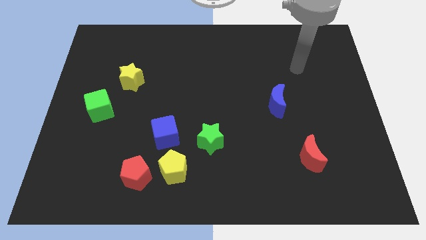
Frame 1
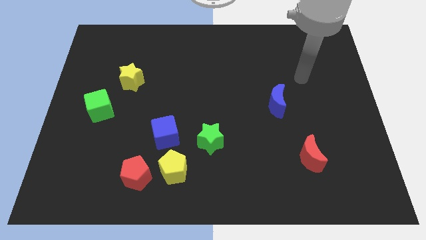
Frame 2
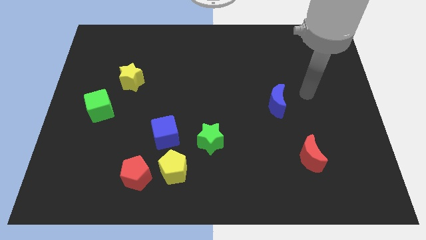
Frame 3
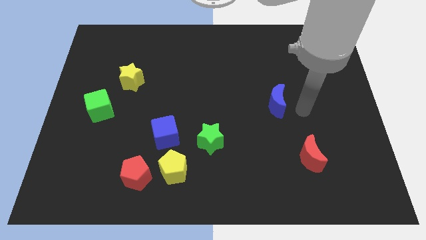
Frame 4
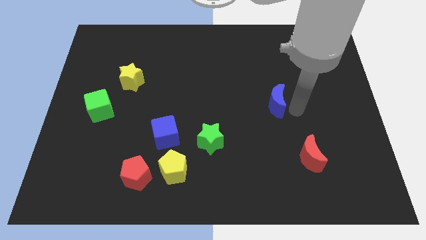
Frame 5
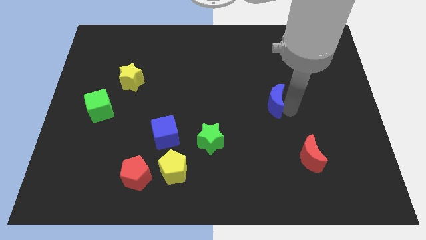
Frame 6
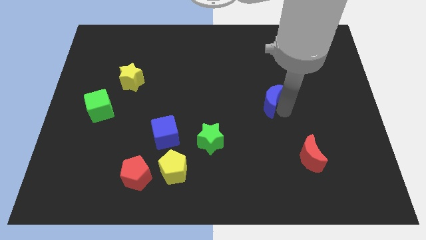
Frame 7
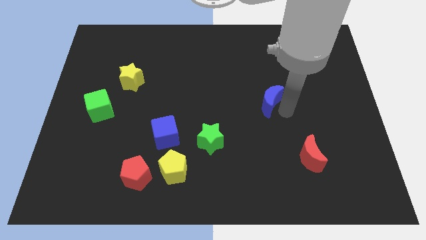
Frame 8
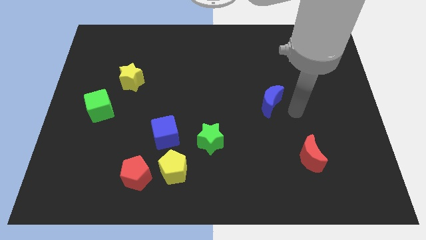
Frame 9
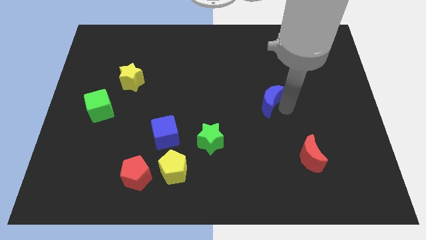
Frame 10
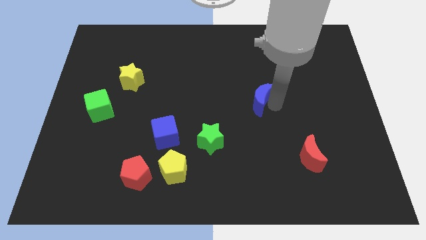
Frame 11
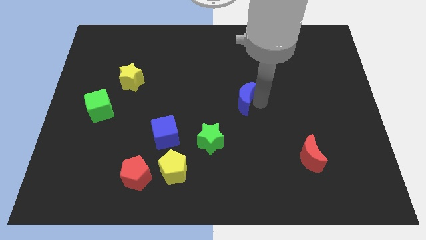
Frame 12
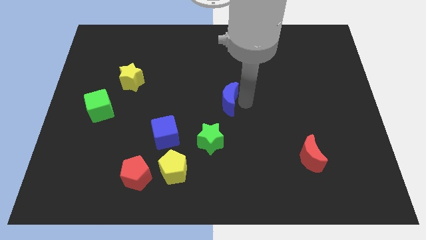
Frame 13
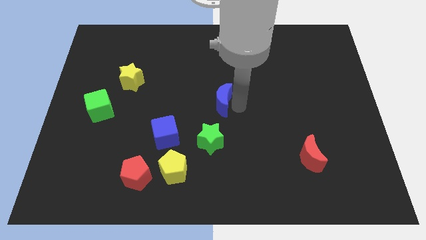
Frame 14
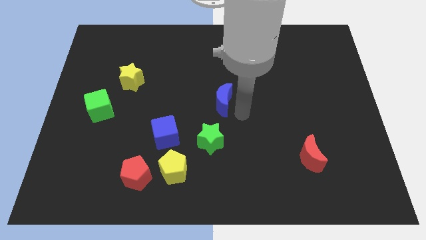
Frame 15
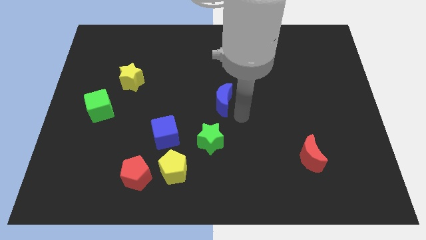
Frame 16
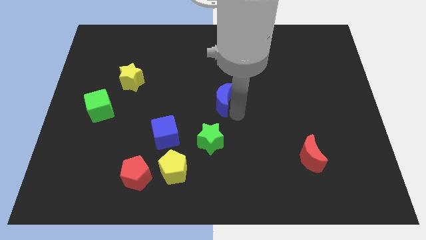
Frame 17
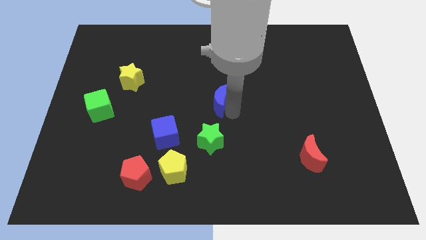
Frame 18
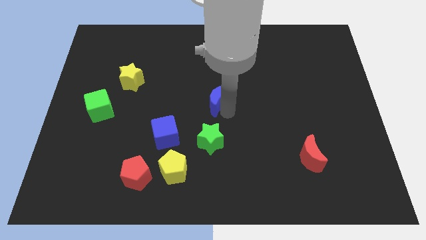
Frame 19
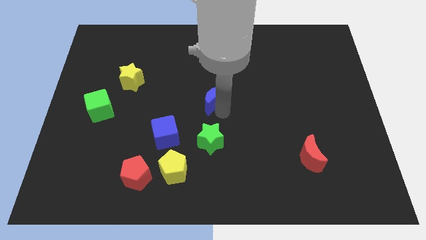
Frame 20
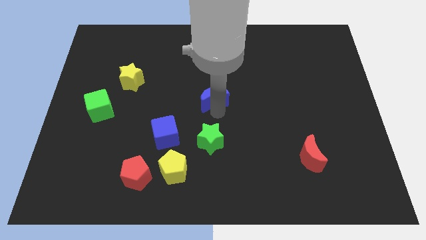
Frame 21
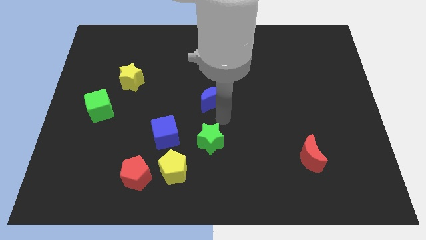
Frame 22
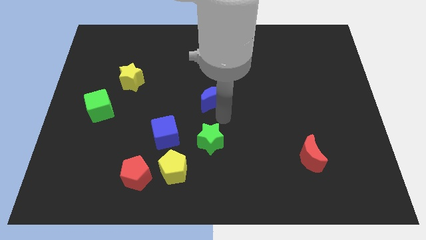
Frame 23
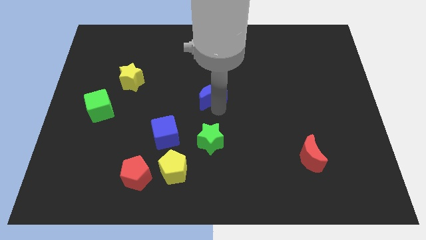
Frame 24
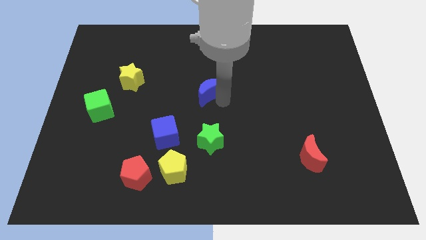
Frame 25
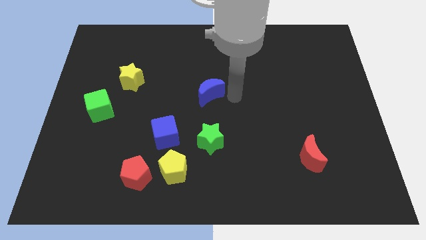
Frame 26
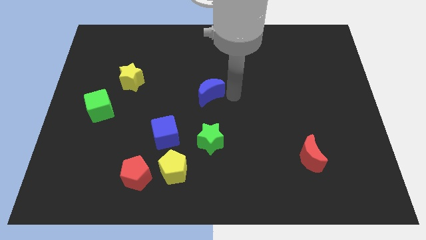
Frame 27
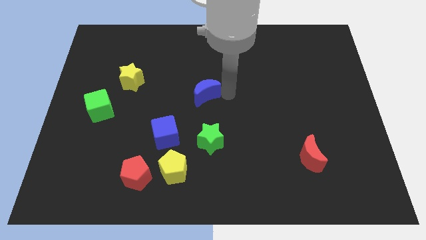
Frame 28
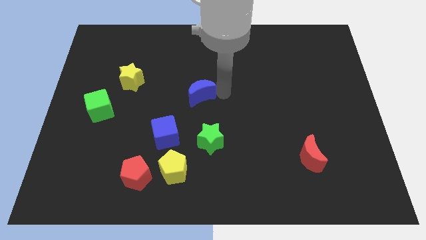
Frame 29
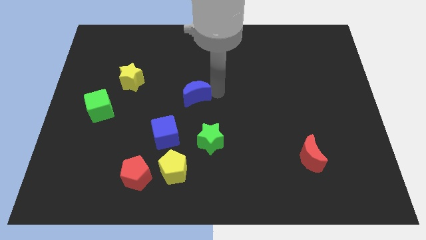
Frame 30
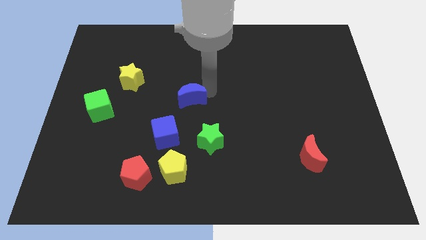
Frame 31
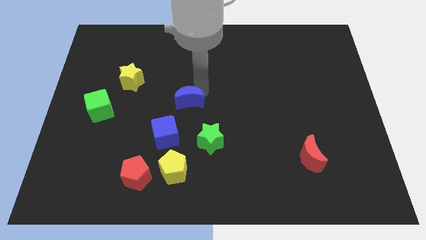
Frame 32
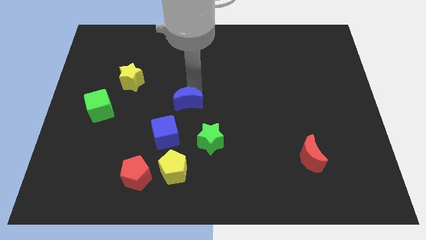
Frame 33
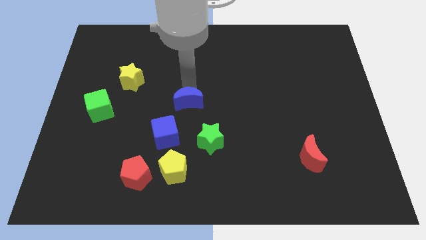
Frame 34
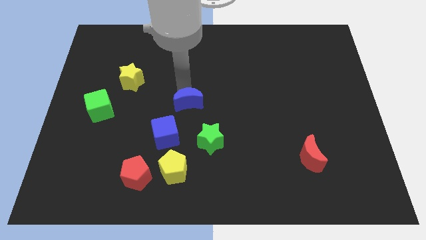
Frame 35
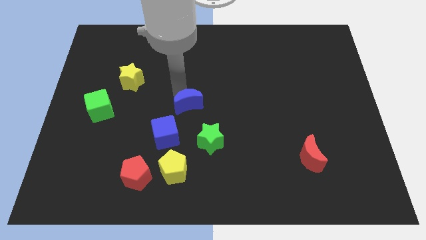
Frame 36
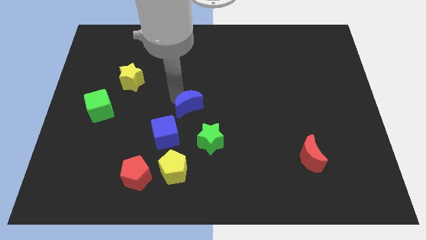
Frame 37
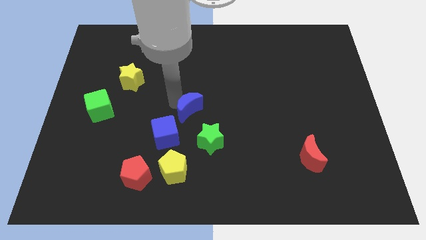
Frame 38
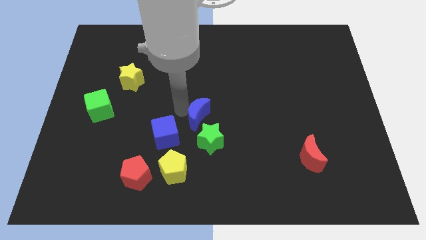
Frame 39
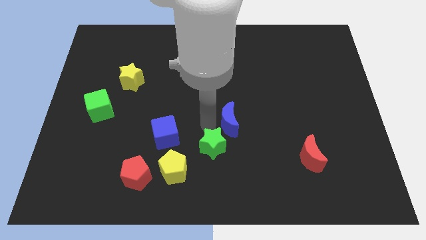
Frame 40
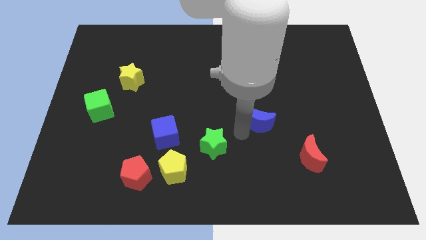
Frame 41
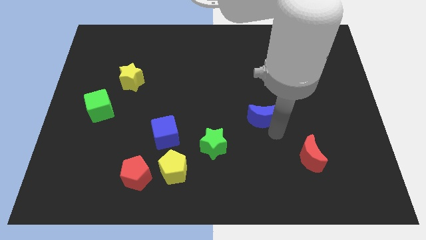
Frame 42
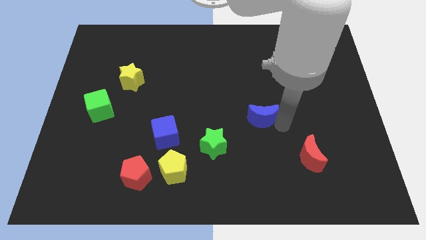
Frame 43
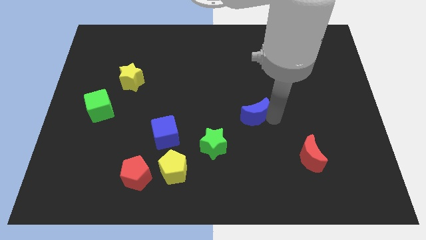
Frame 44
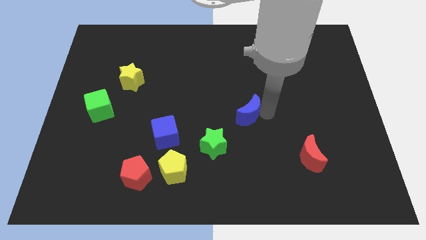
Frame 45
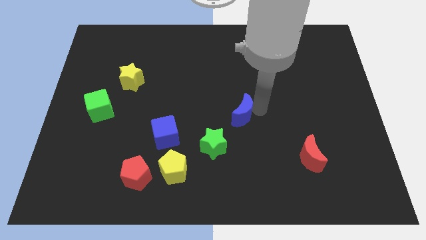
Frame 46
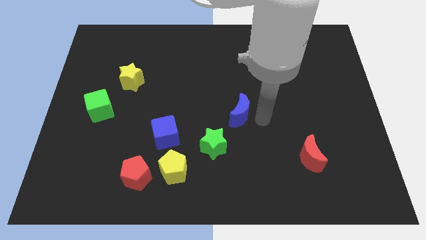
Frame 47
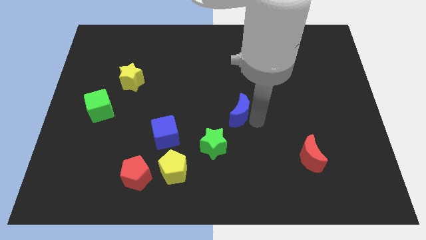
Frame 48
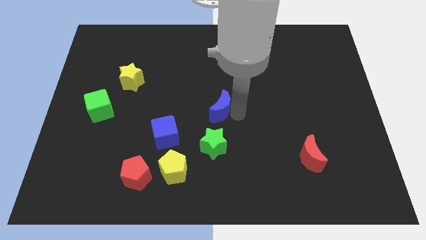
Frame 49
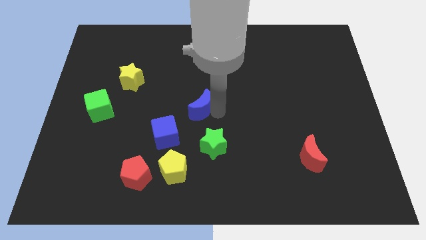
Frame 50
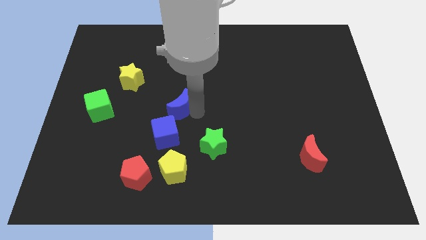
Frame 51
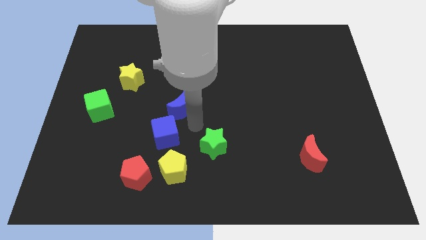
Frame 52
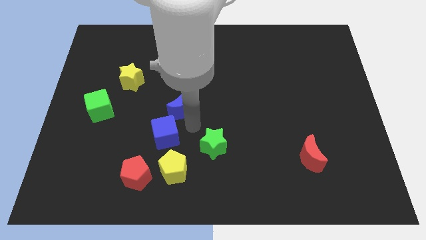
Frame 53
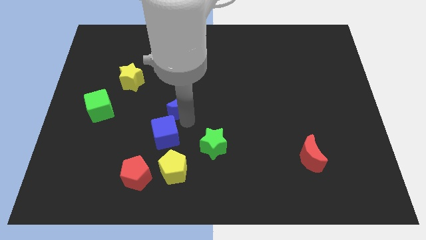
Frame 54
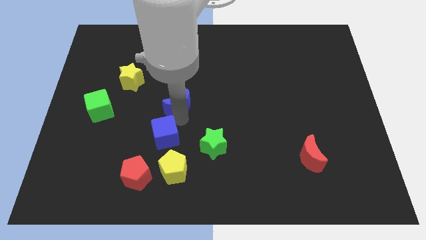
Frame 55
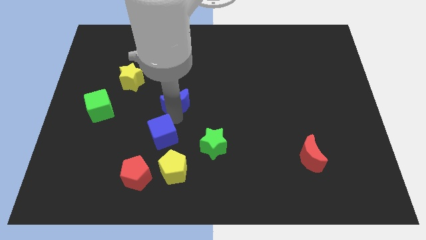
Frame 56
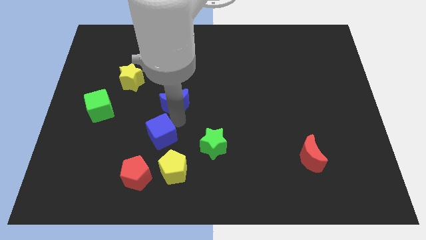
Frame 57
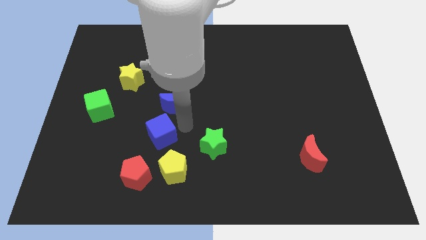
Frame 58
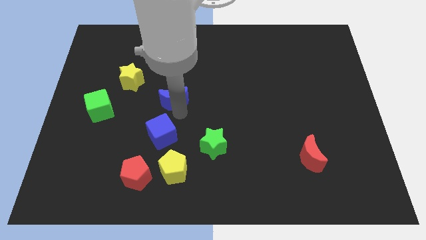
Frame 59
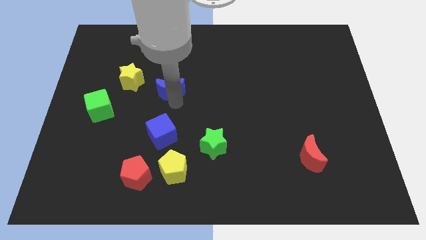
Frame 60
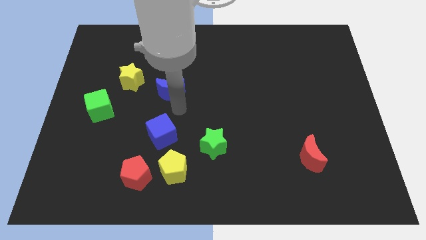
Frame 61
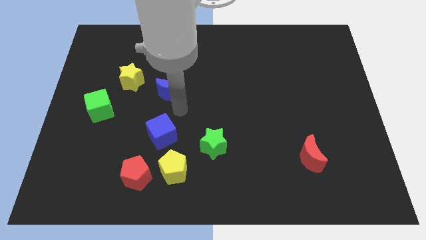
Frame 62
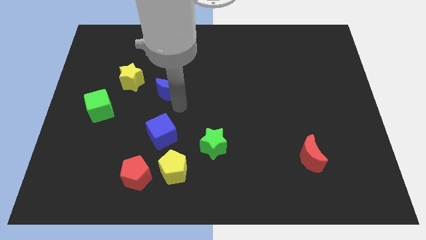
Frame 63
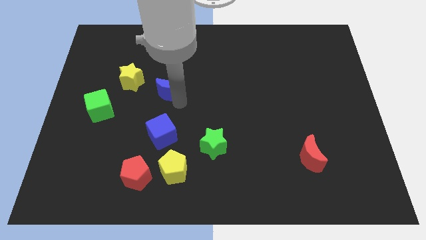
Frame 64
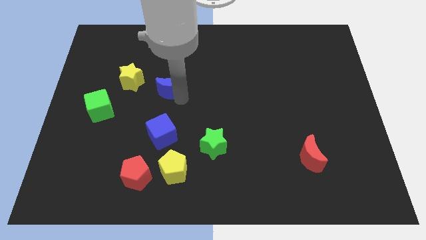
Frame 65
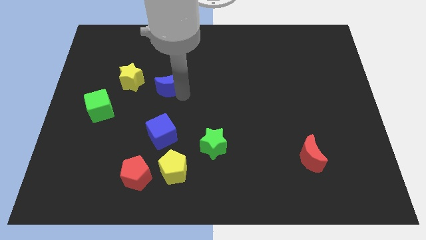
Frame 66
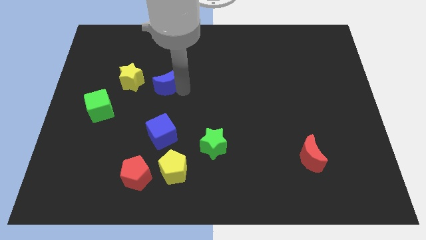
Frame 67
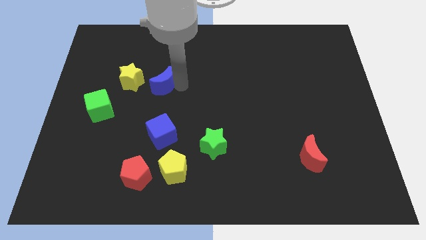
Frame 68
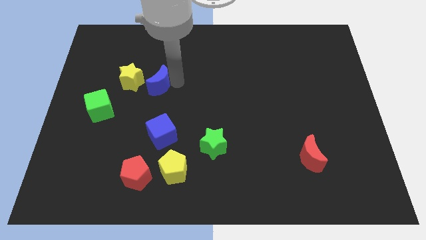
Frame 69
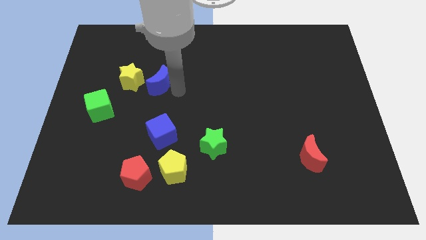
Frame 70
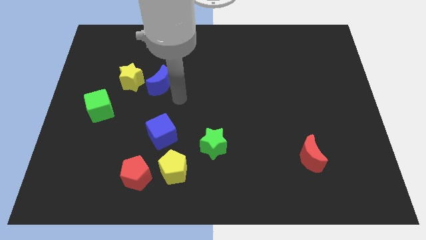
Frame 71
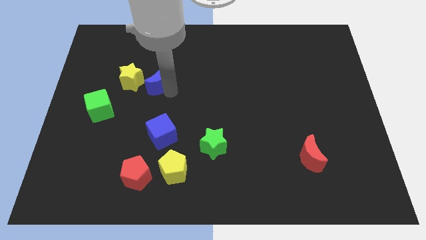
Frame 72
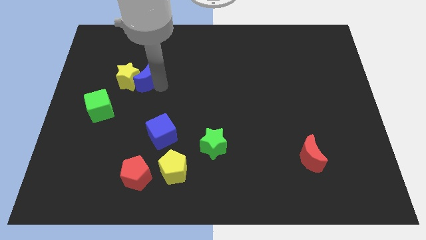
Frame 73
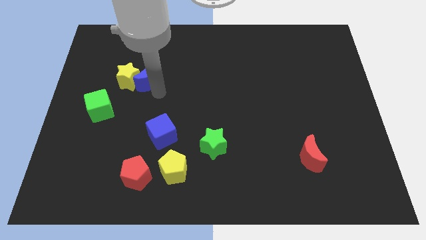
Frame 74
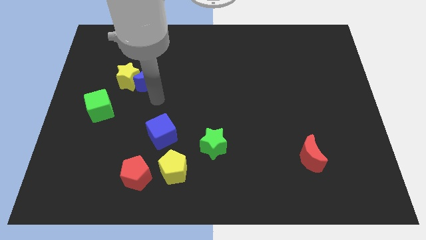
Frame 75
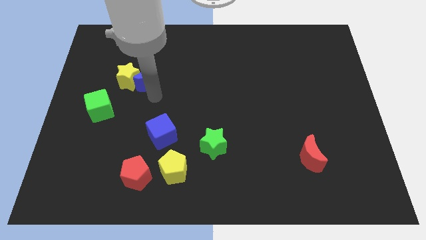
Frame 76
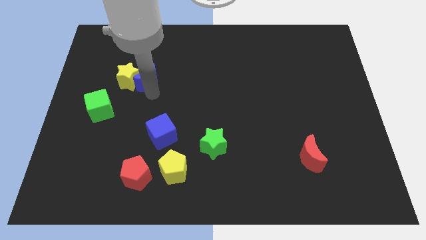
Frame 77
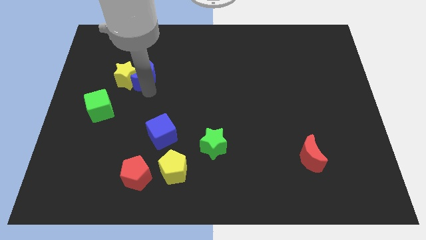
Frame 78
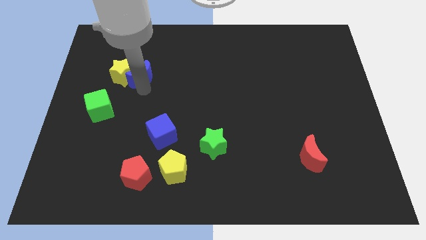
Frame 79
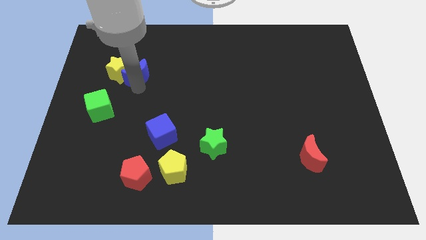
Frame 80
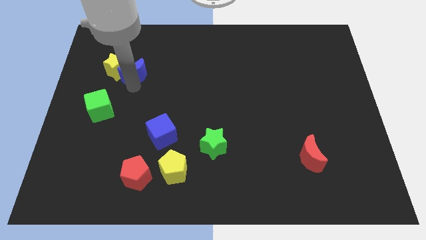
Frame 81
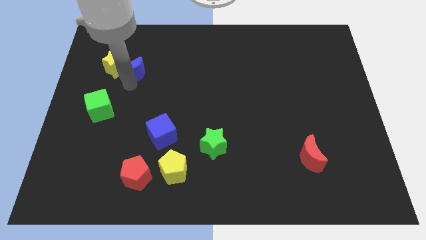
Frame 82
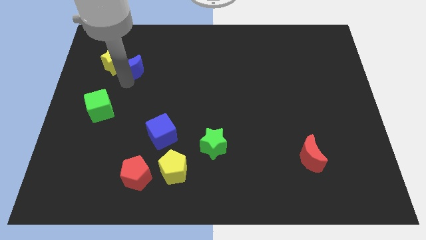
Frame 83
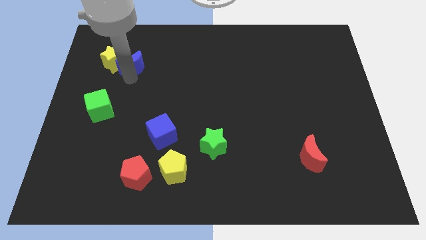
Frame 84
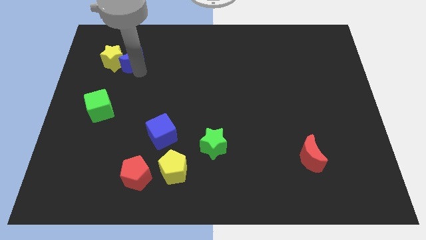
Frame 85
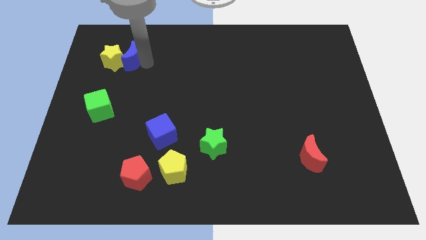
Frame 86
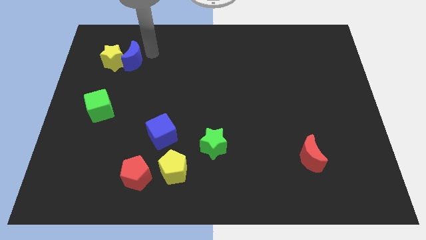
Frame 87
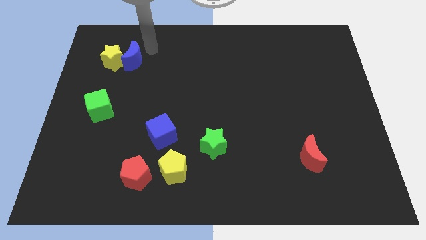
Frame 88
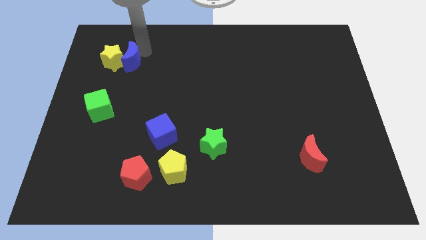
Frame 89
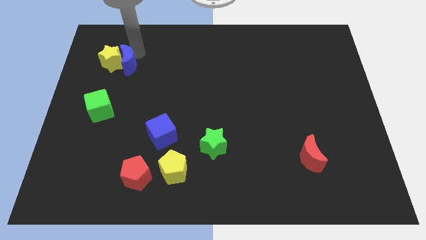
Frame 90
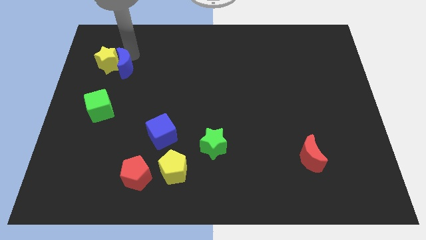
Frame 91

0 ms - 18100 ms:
push the blue moon above the green cube
